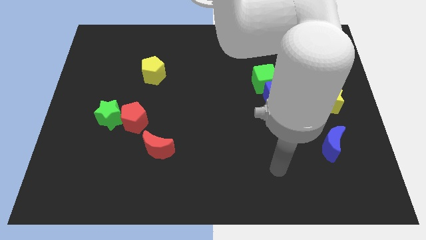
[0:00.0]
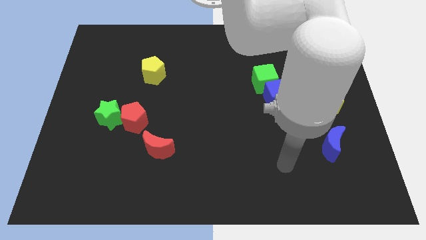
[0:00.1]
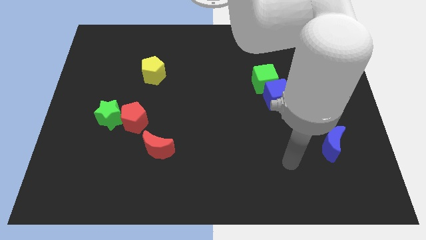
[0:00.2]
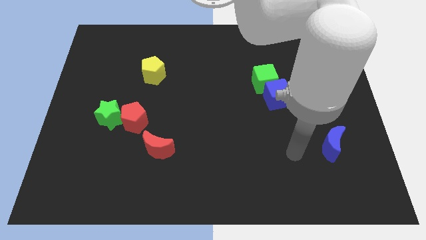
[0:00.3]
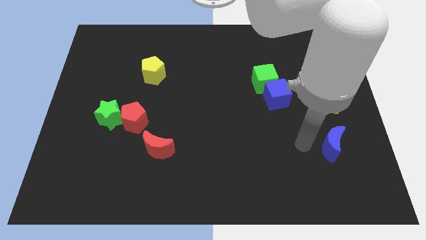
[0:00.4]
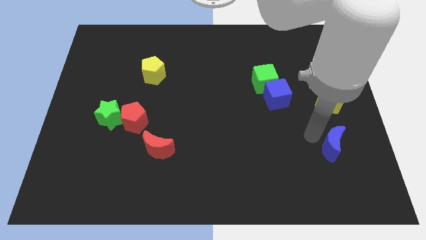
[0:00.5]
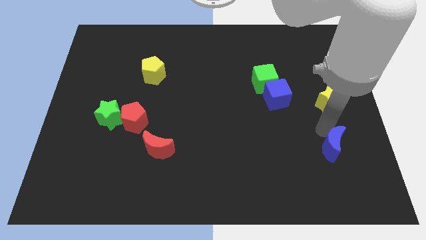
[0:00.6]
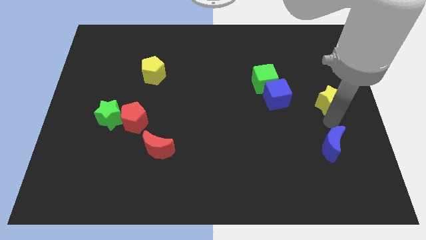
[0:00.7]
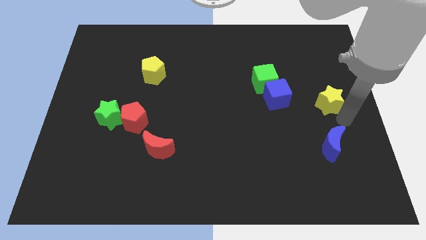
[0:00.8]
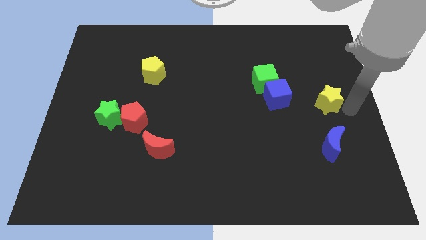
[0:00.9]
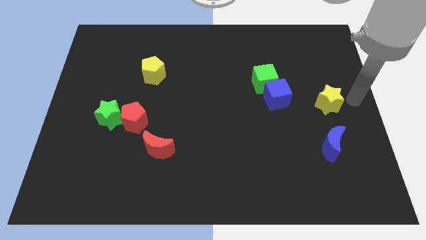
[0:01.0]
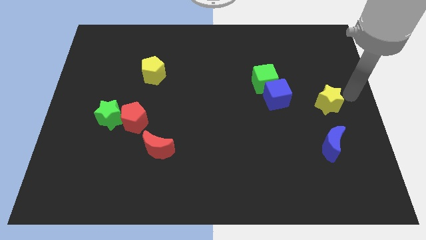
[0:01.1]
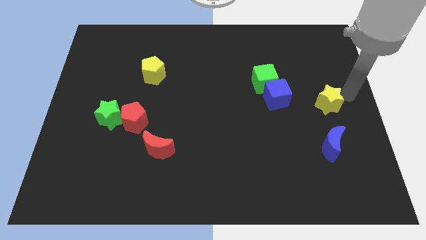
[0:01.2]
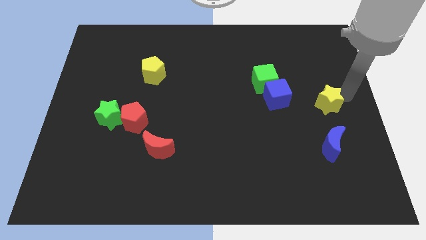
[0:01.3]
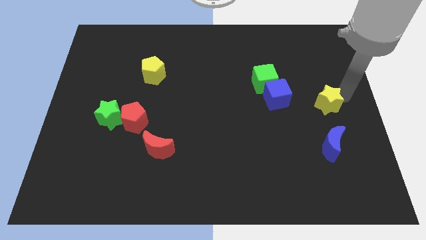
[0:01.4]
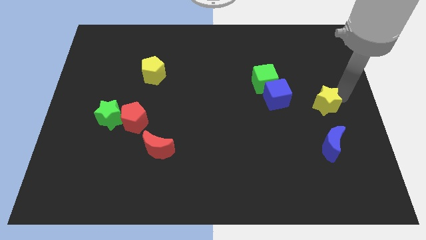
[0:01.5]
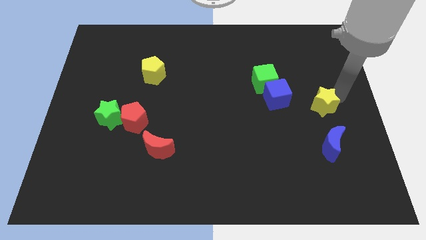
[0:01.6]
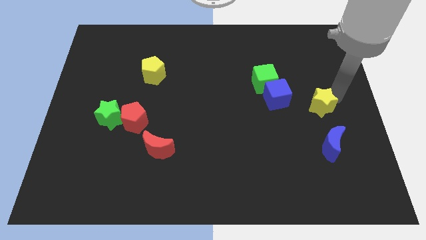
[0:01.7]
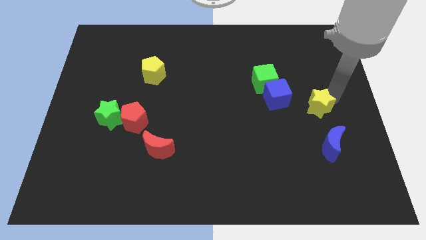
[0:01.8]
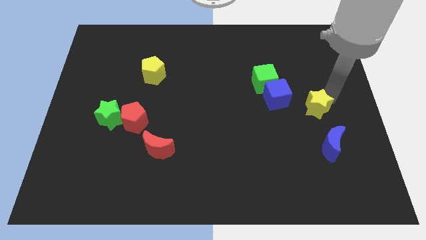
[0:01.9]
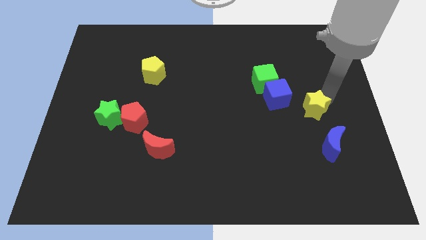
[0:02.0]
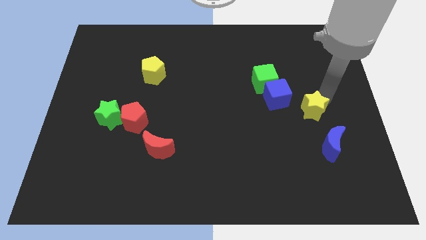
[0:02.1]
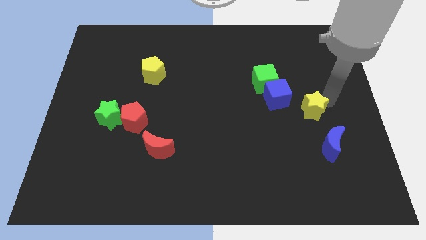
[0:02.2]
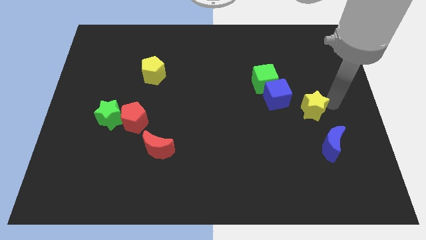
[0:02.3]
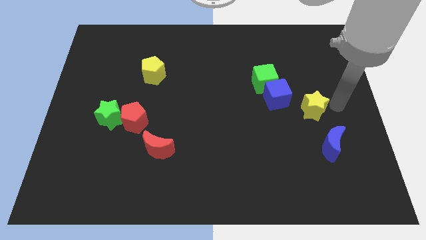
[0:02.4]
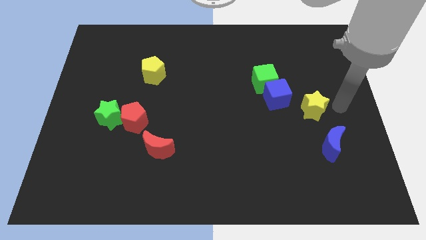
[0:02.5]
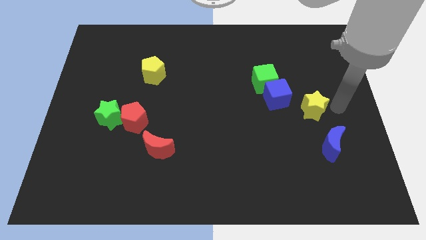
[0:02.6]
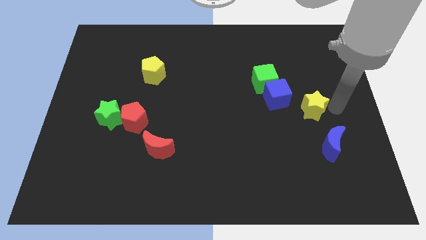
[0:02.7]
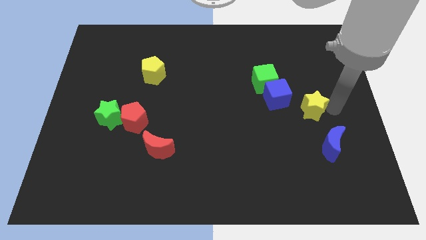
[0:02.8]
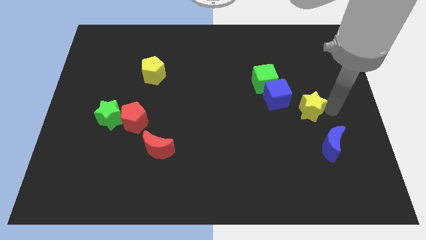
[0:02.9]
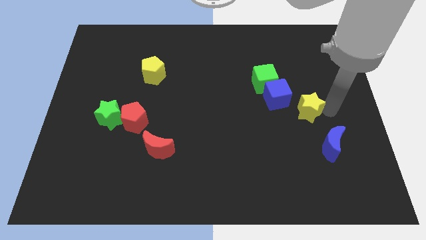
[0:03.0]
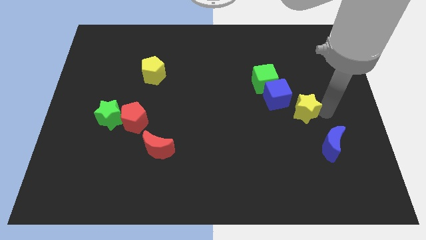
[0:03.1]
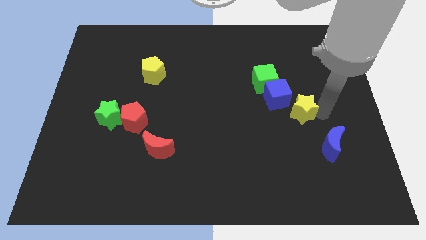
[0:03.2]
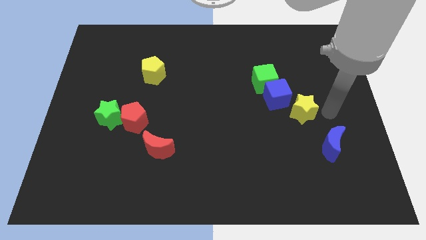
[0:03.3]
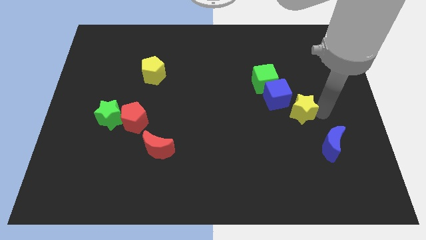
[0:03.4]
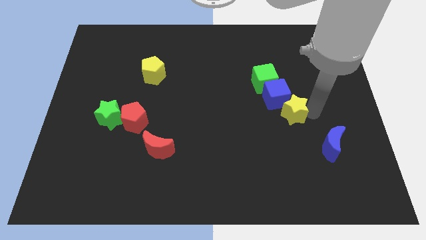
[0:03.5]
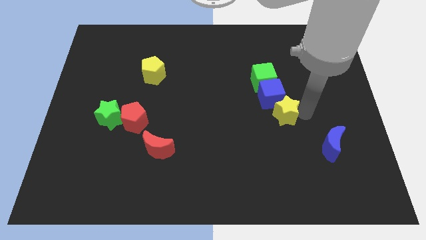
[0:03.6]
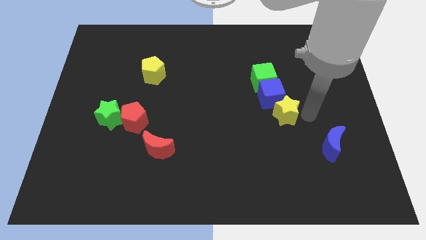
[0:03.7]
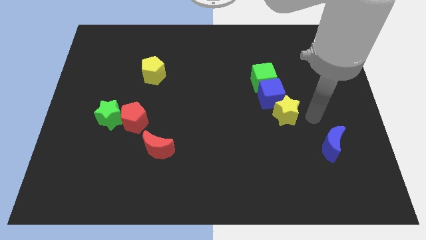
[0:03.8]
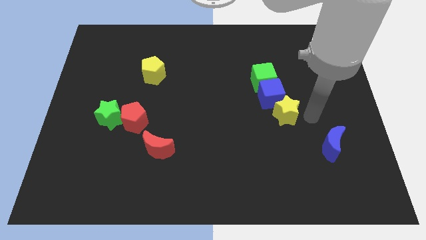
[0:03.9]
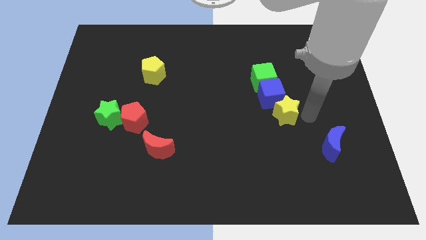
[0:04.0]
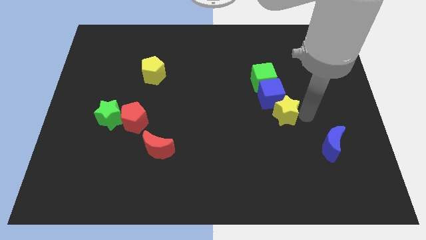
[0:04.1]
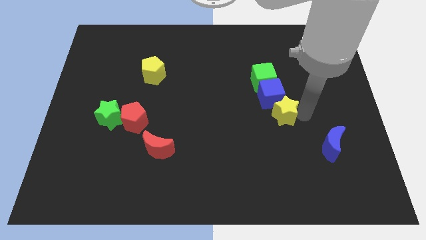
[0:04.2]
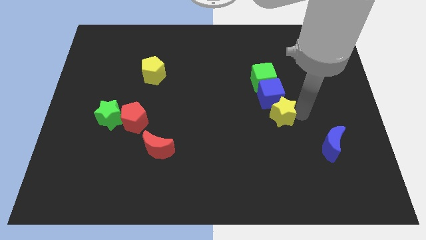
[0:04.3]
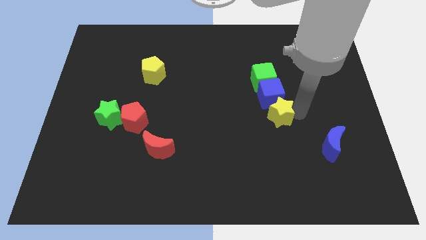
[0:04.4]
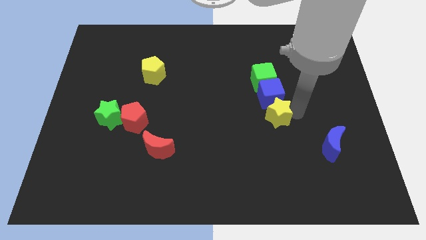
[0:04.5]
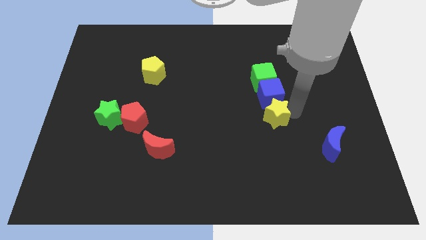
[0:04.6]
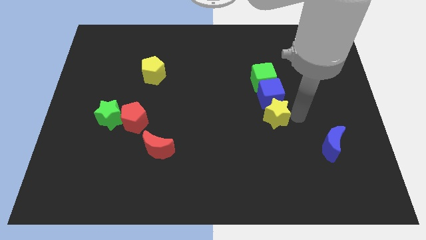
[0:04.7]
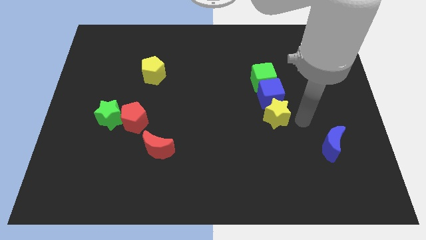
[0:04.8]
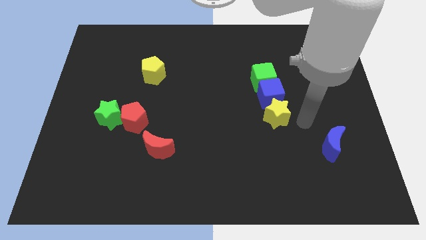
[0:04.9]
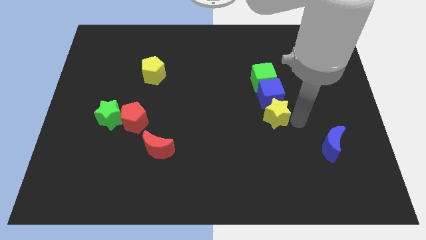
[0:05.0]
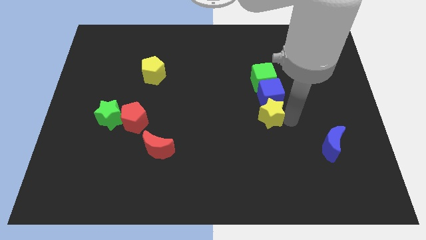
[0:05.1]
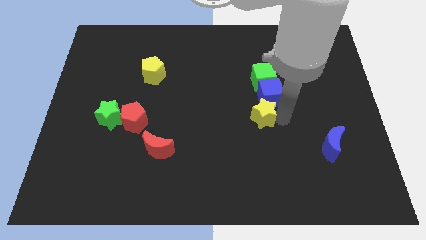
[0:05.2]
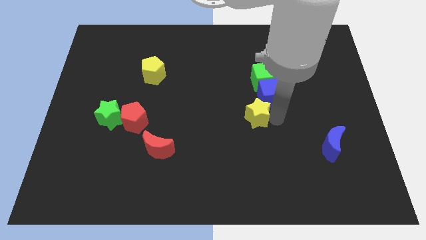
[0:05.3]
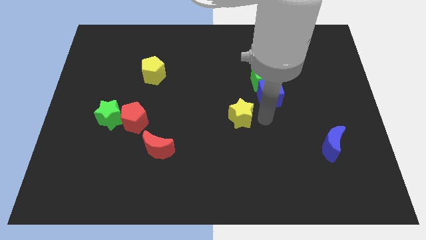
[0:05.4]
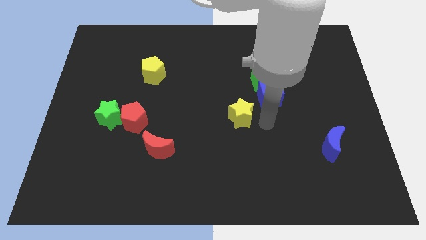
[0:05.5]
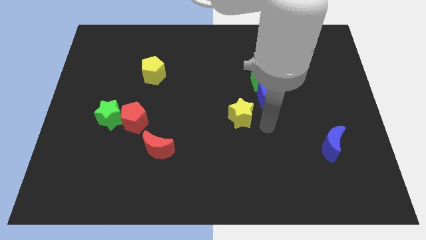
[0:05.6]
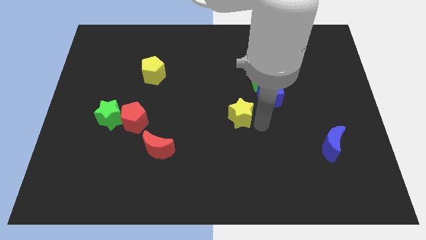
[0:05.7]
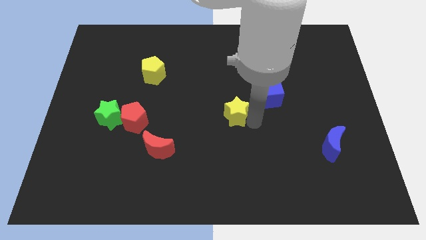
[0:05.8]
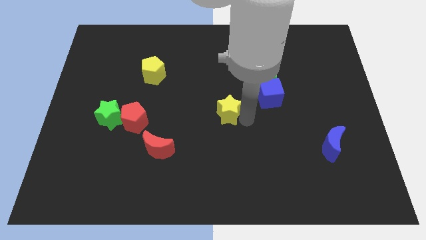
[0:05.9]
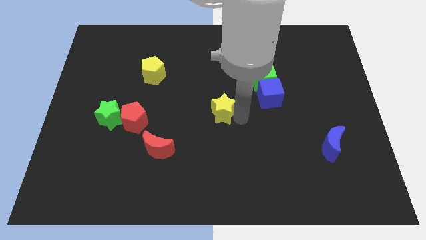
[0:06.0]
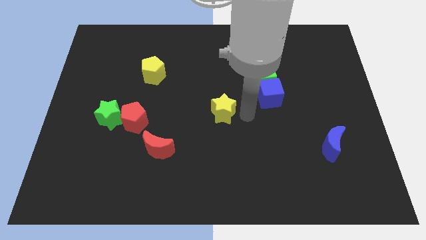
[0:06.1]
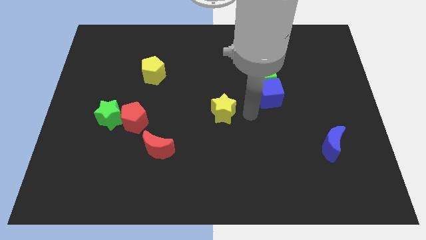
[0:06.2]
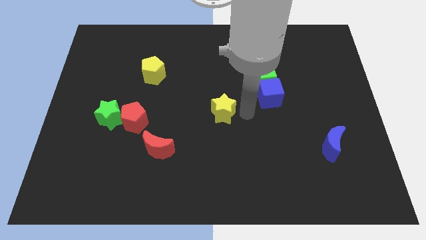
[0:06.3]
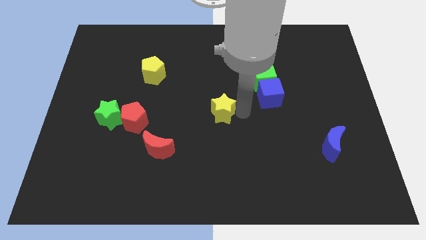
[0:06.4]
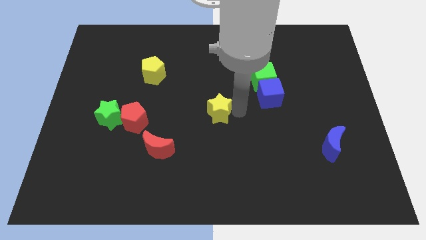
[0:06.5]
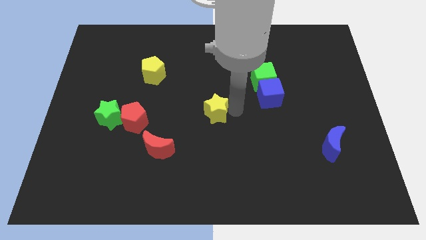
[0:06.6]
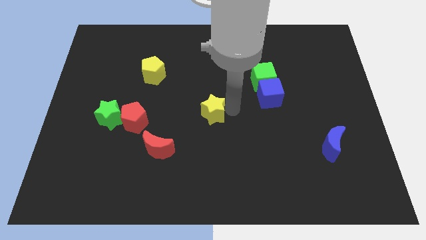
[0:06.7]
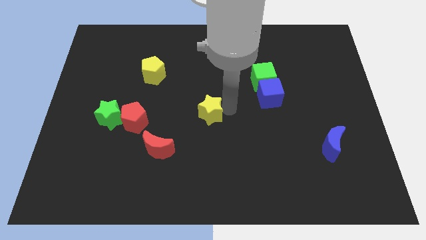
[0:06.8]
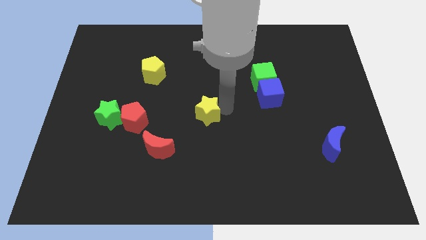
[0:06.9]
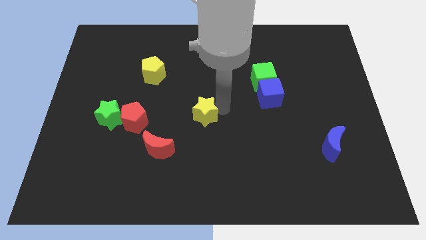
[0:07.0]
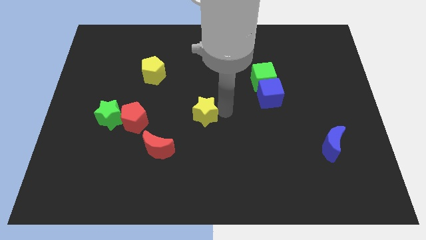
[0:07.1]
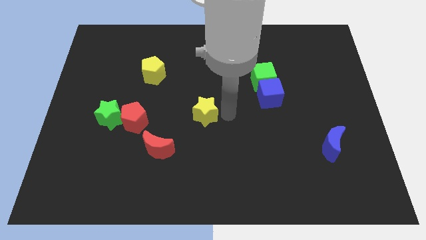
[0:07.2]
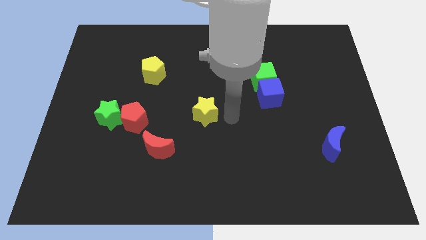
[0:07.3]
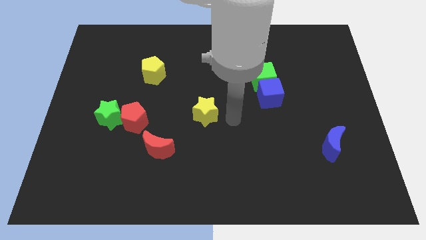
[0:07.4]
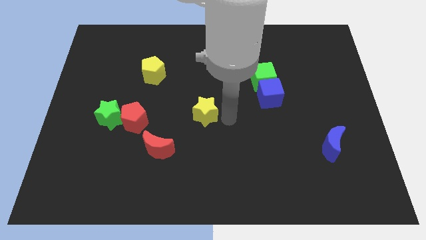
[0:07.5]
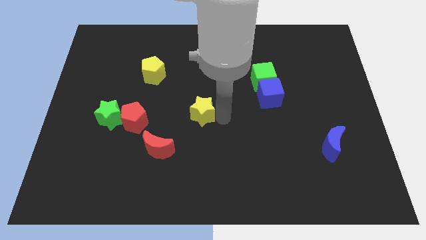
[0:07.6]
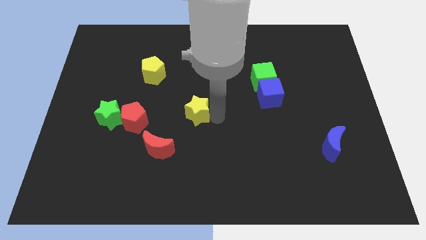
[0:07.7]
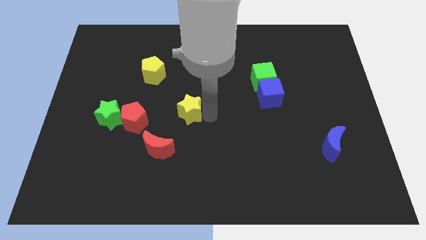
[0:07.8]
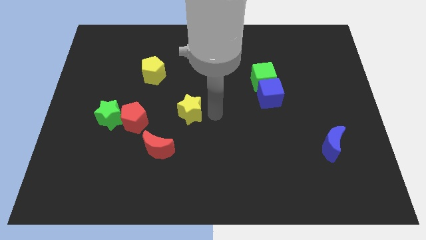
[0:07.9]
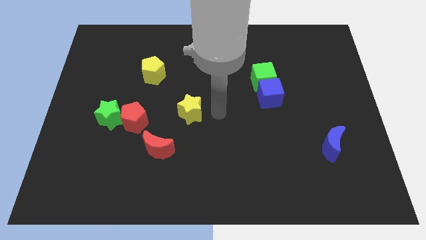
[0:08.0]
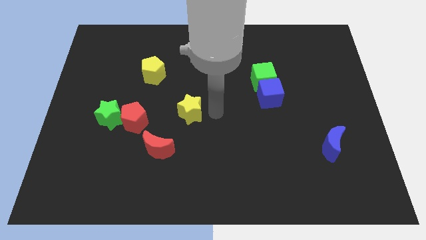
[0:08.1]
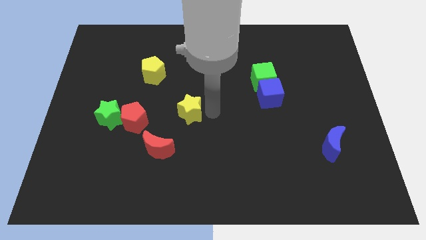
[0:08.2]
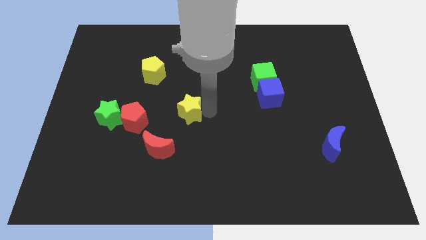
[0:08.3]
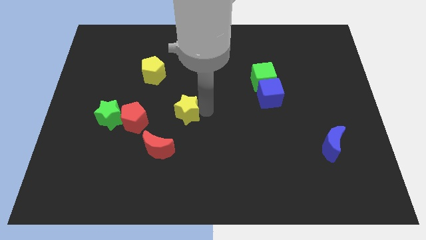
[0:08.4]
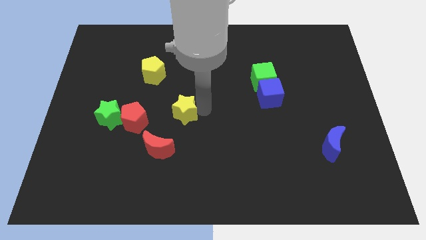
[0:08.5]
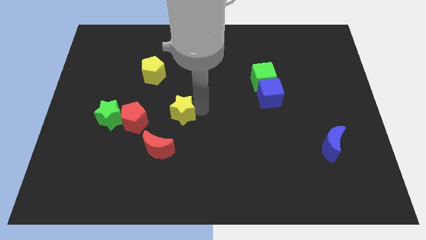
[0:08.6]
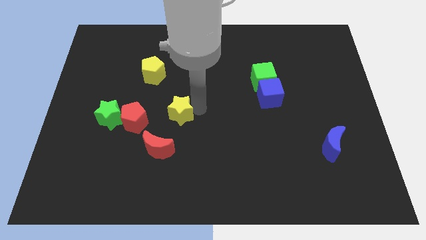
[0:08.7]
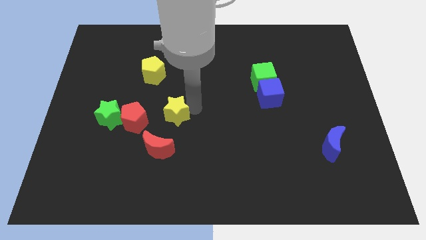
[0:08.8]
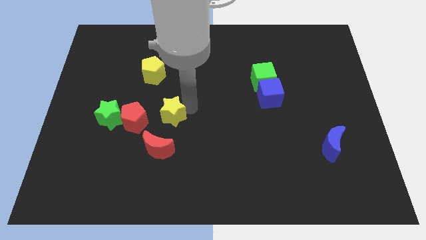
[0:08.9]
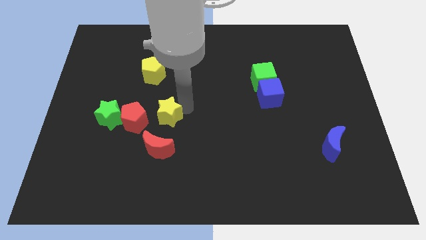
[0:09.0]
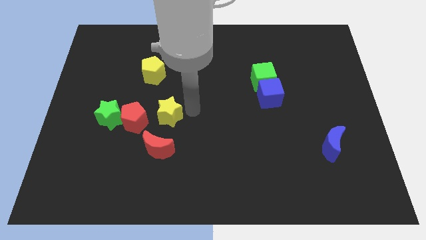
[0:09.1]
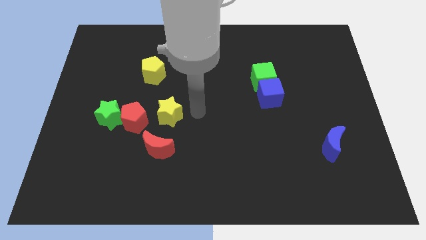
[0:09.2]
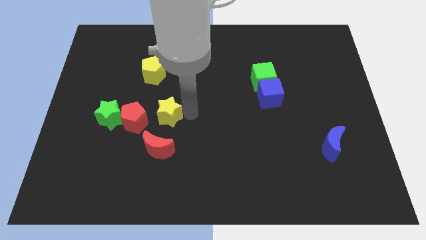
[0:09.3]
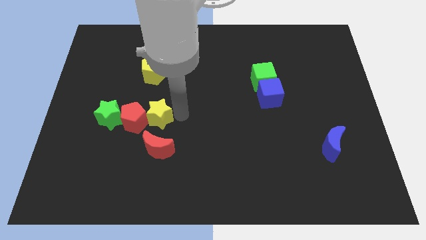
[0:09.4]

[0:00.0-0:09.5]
push the yellow star towards the red pentagon
